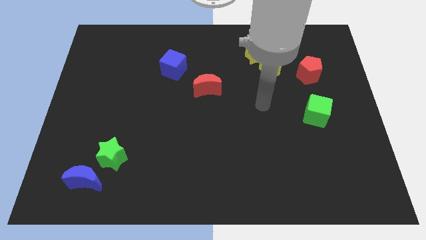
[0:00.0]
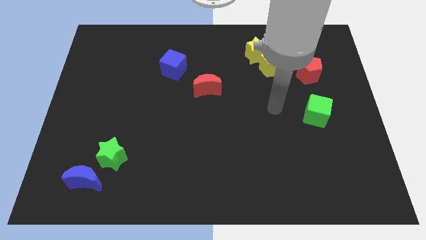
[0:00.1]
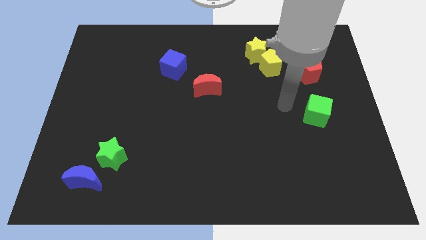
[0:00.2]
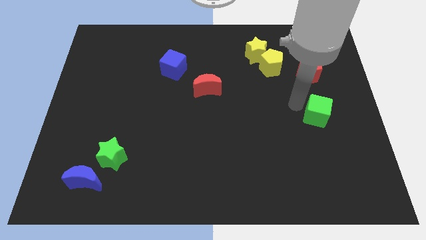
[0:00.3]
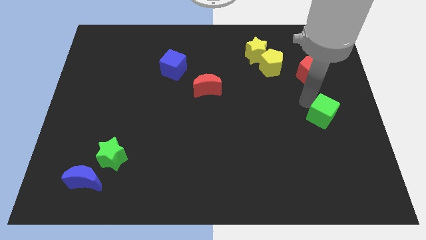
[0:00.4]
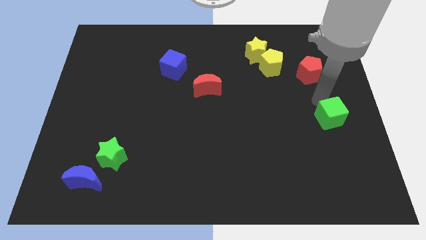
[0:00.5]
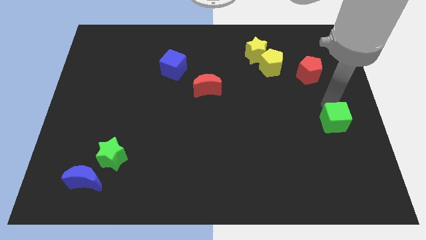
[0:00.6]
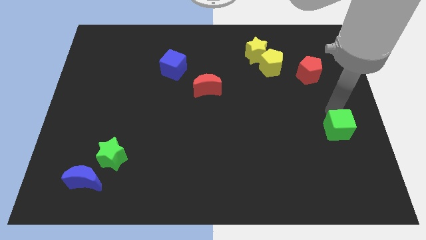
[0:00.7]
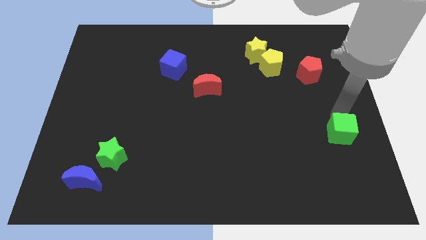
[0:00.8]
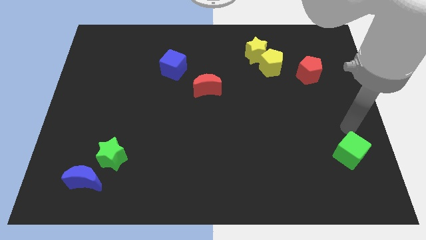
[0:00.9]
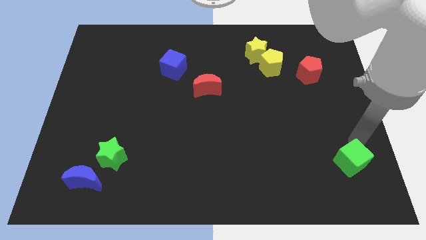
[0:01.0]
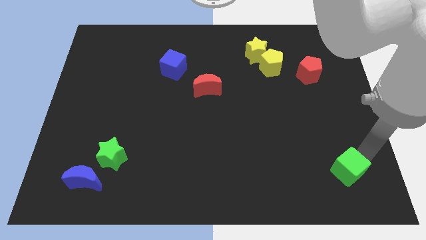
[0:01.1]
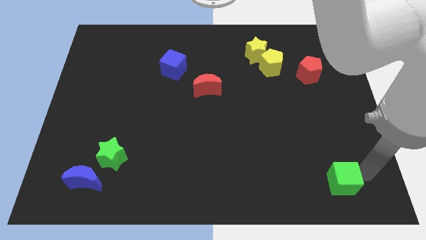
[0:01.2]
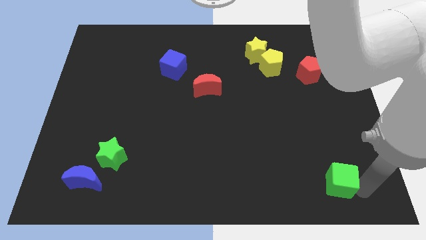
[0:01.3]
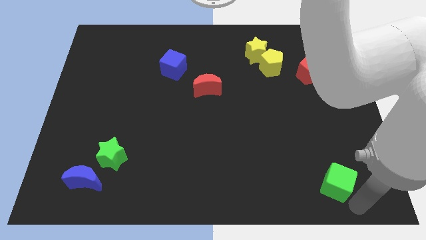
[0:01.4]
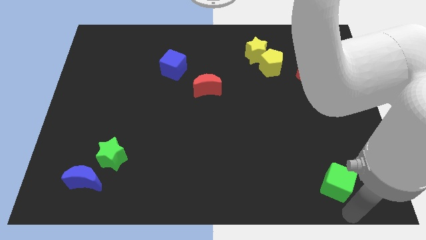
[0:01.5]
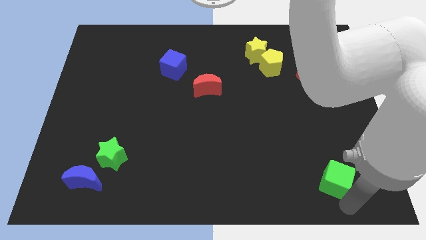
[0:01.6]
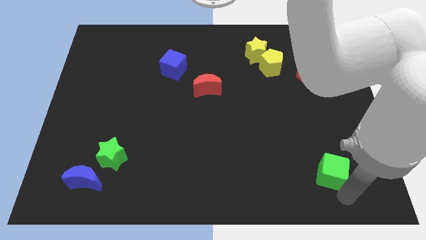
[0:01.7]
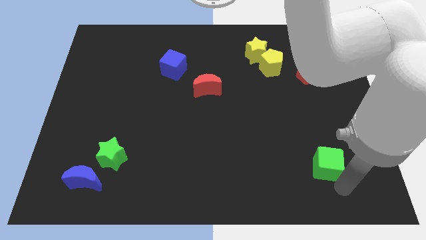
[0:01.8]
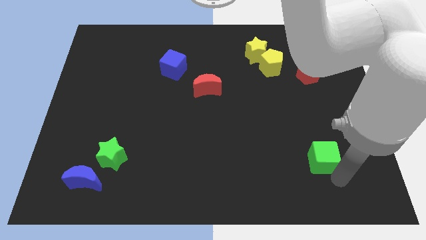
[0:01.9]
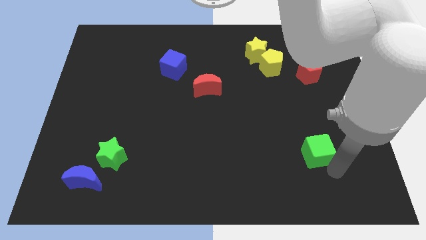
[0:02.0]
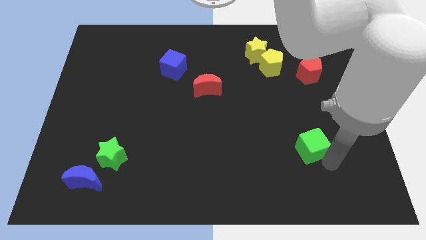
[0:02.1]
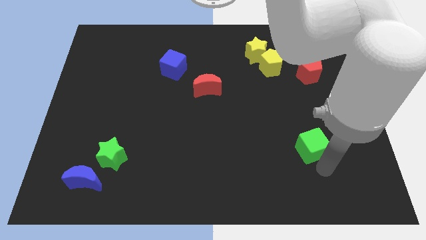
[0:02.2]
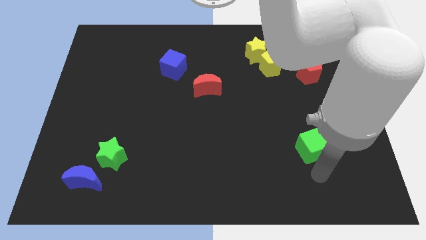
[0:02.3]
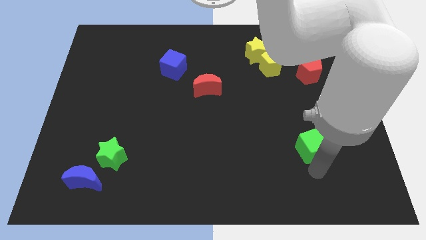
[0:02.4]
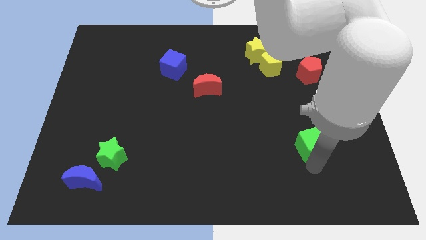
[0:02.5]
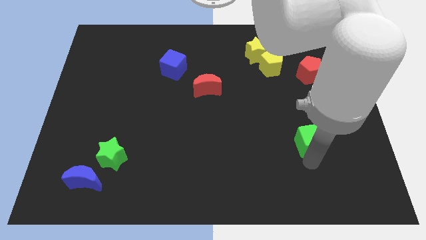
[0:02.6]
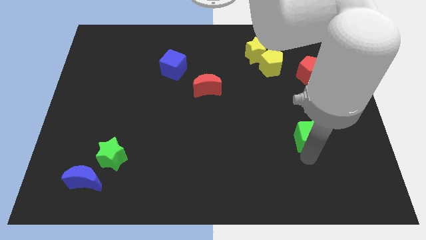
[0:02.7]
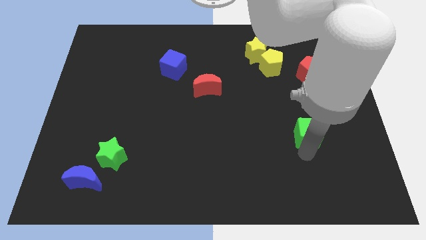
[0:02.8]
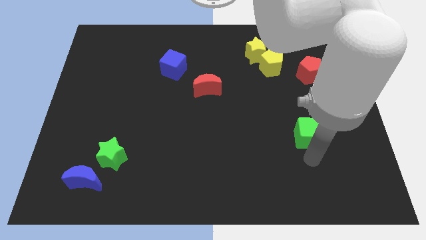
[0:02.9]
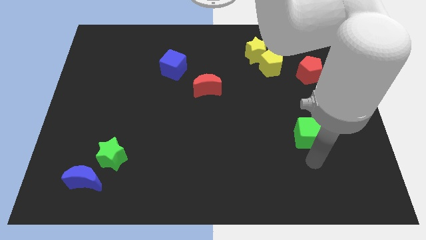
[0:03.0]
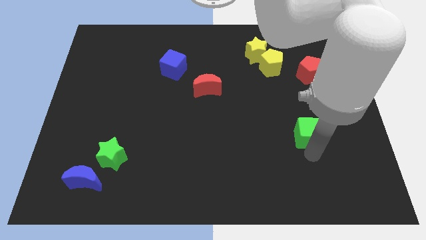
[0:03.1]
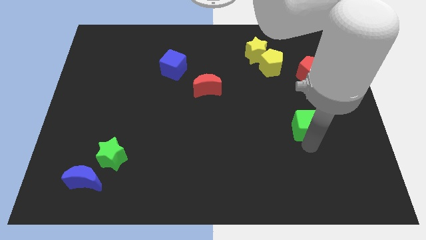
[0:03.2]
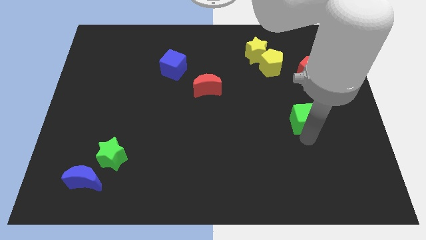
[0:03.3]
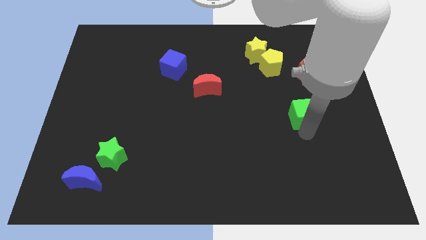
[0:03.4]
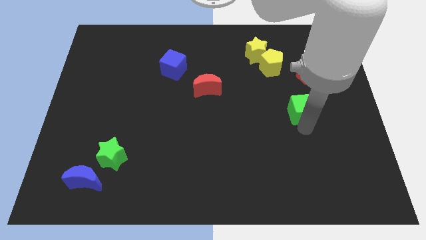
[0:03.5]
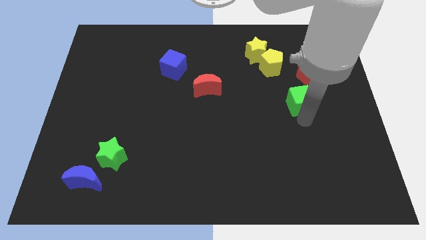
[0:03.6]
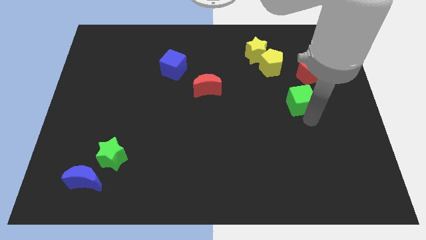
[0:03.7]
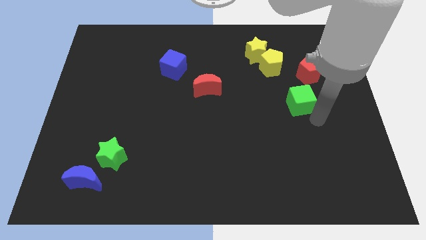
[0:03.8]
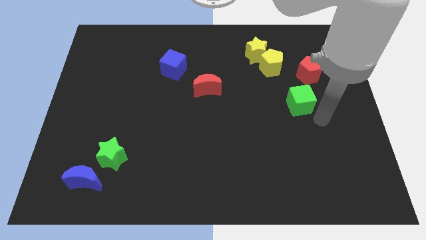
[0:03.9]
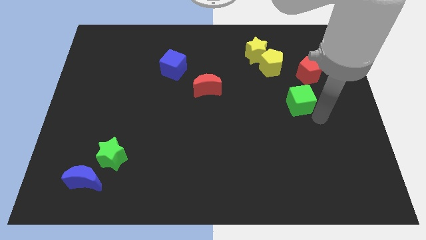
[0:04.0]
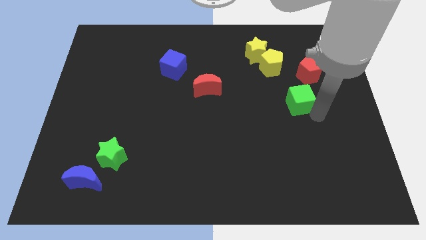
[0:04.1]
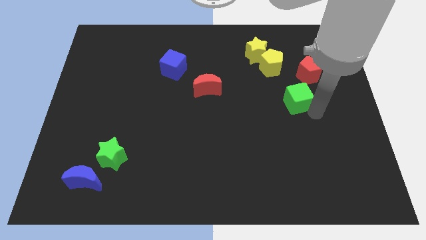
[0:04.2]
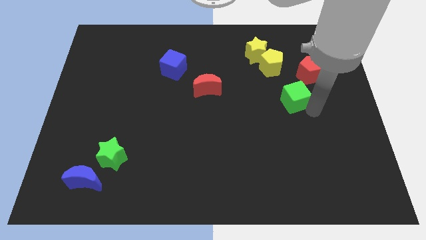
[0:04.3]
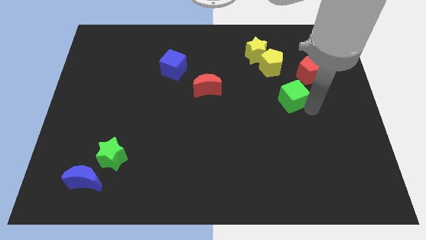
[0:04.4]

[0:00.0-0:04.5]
move the green cube a little diagonally upwards and left

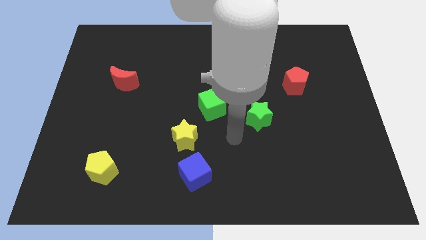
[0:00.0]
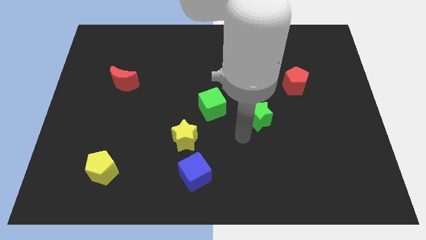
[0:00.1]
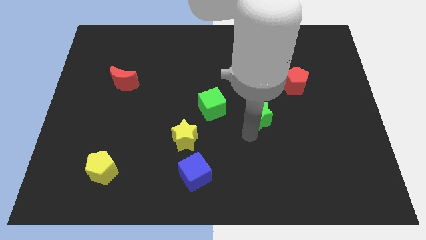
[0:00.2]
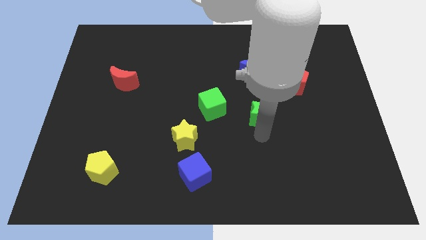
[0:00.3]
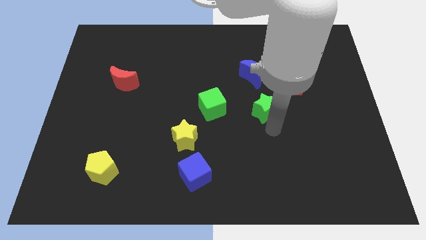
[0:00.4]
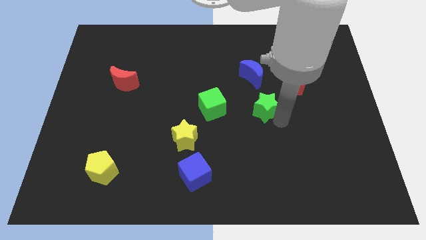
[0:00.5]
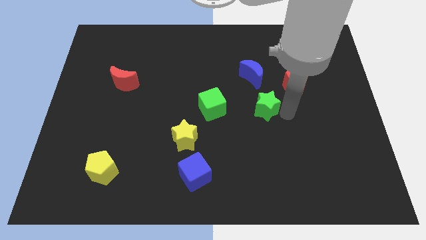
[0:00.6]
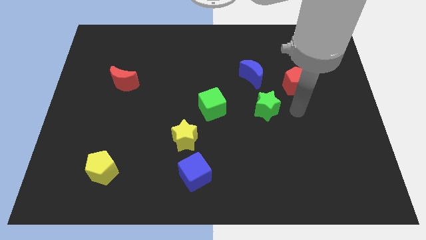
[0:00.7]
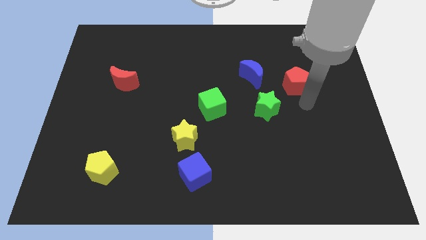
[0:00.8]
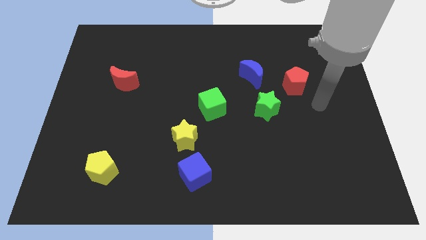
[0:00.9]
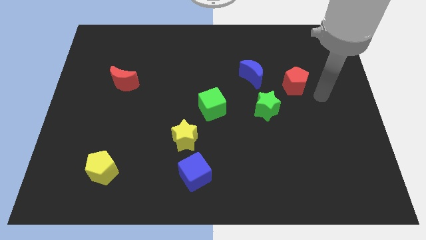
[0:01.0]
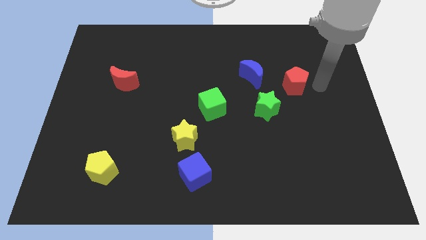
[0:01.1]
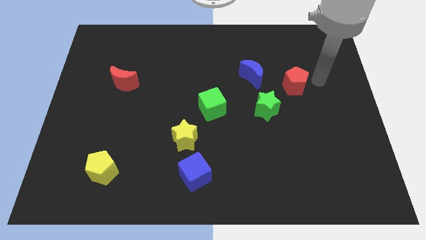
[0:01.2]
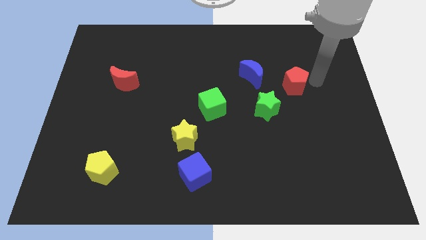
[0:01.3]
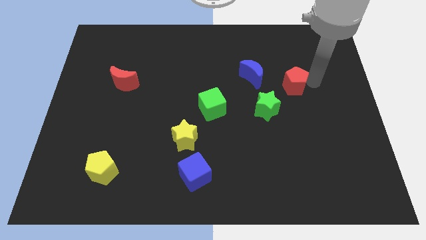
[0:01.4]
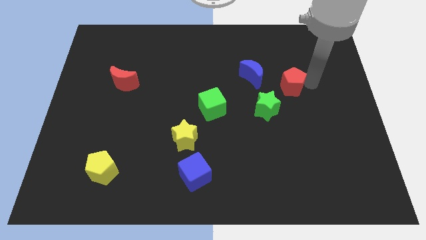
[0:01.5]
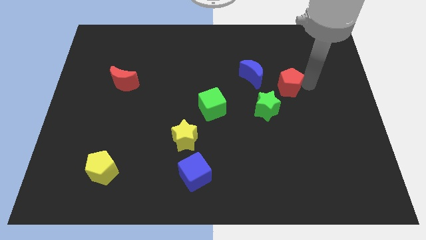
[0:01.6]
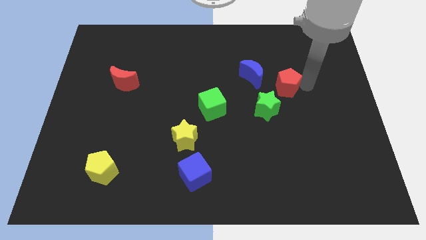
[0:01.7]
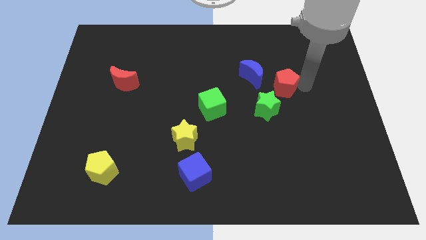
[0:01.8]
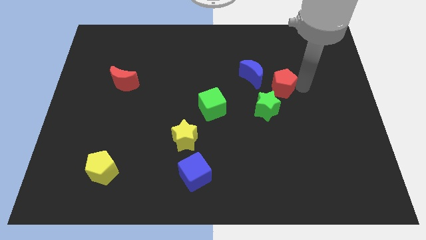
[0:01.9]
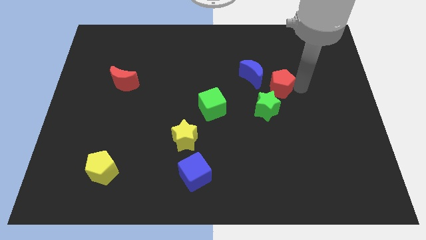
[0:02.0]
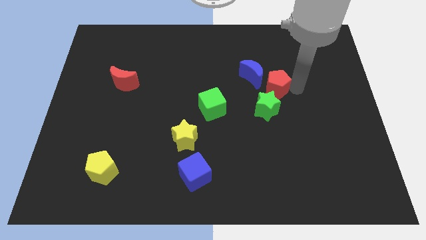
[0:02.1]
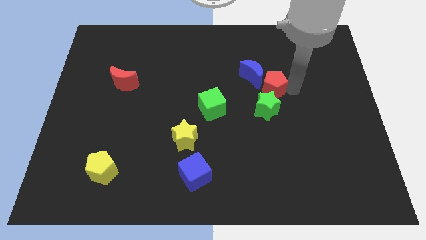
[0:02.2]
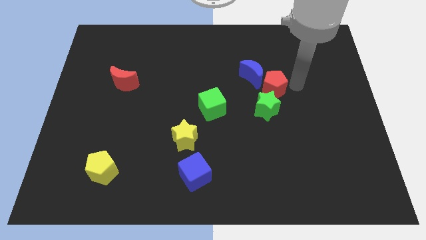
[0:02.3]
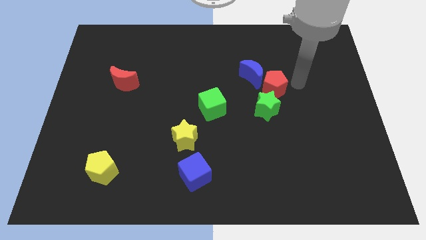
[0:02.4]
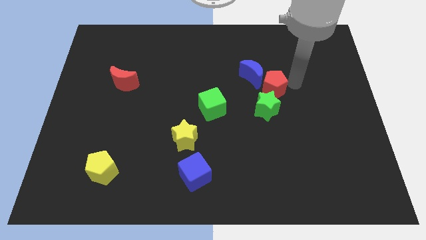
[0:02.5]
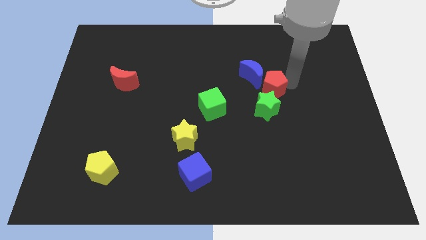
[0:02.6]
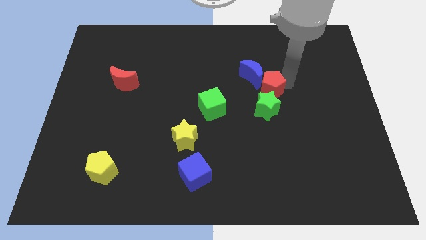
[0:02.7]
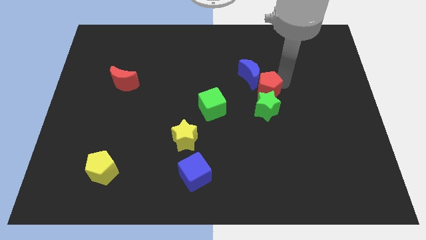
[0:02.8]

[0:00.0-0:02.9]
move the red pentagon to the left somewhat

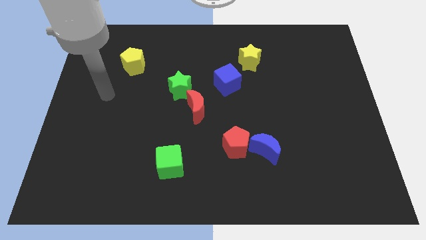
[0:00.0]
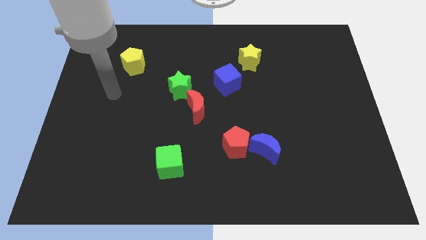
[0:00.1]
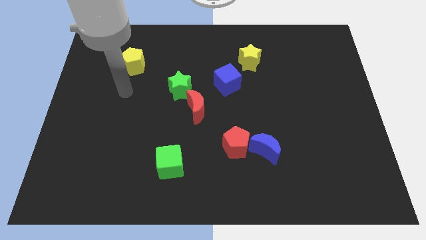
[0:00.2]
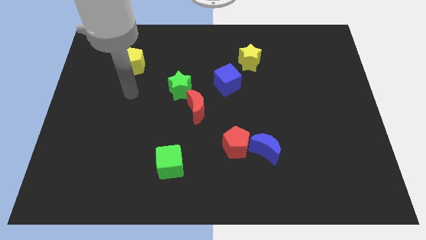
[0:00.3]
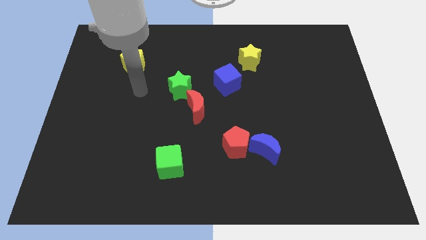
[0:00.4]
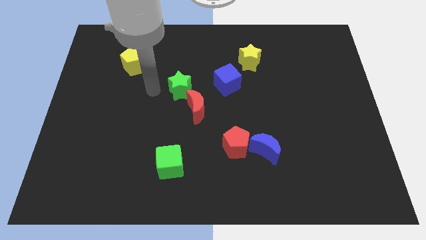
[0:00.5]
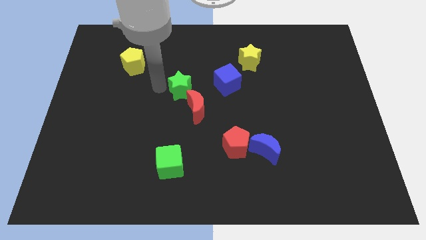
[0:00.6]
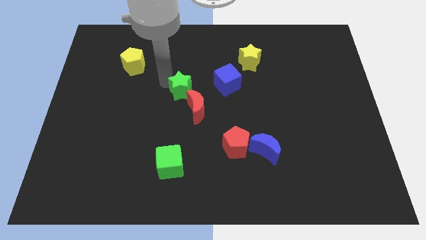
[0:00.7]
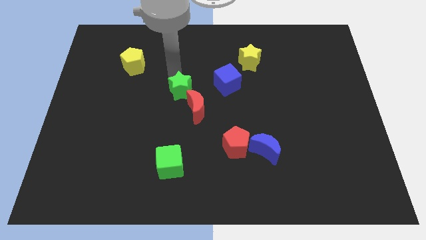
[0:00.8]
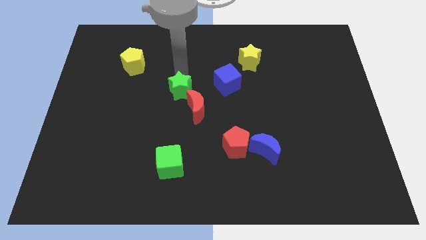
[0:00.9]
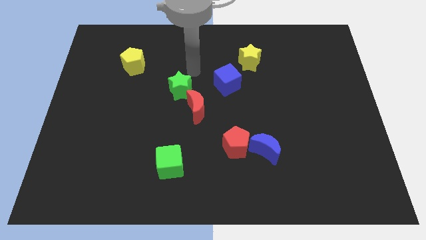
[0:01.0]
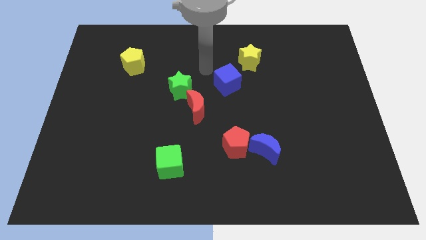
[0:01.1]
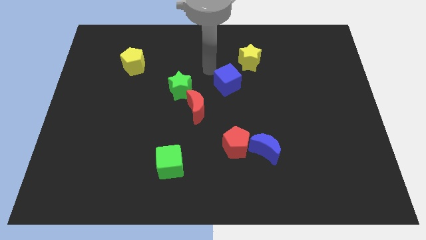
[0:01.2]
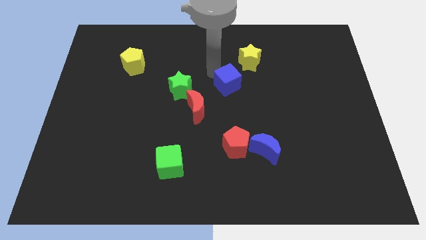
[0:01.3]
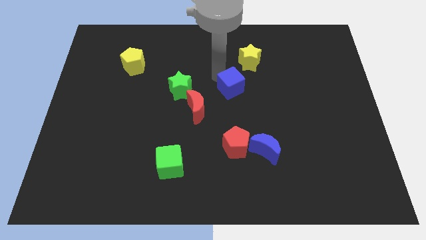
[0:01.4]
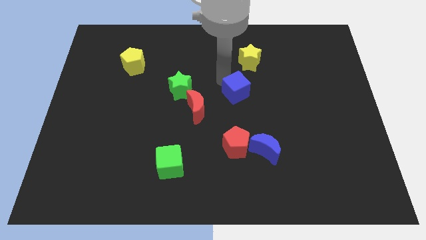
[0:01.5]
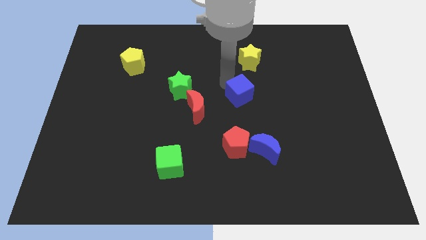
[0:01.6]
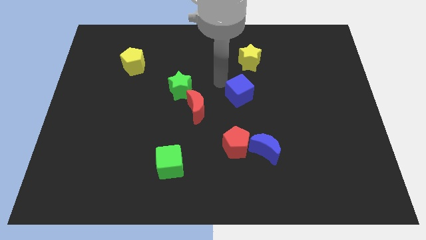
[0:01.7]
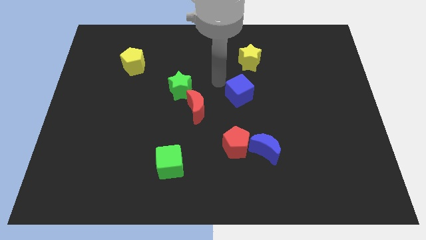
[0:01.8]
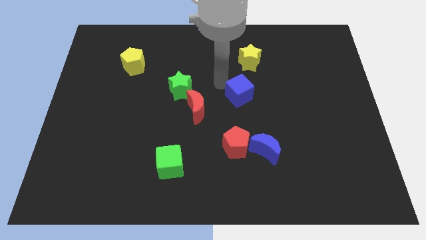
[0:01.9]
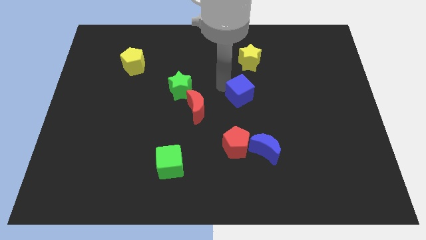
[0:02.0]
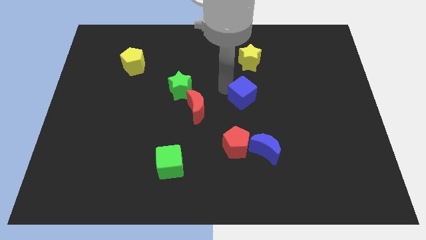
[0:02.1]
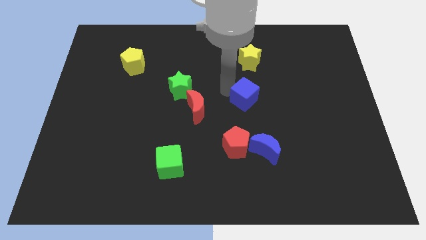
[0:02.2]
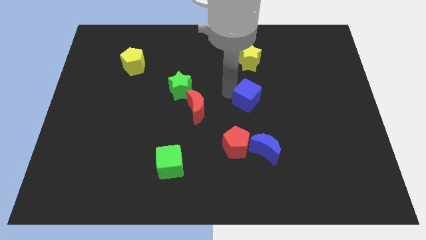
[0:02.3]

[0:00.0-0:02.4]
slightly push the blue cube down and right diagonally
